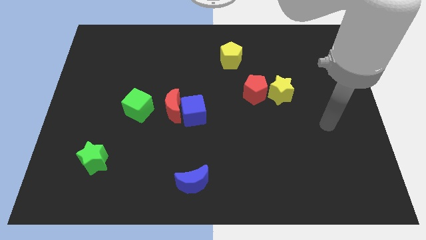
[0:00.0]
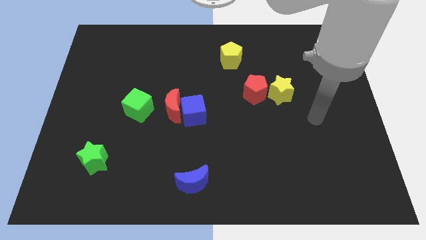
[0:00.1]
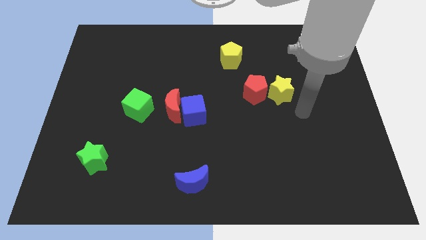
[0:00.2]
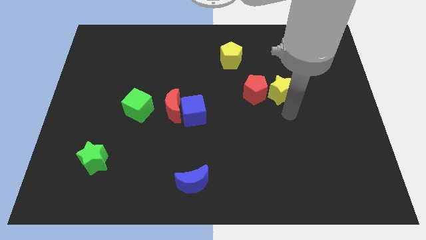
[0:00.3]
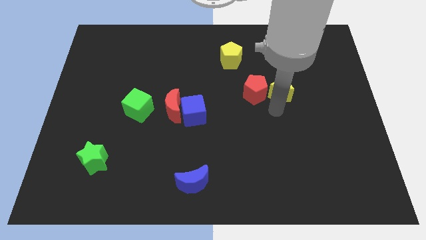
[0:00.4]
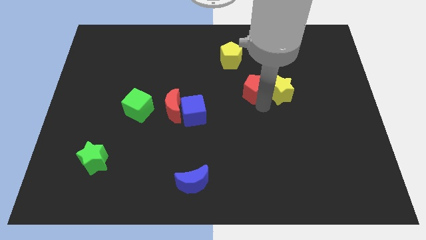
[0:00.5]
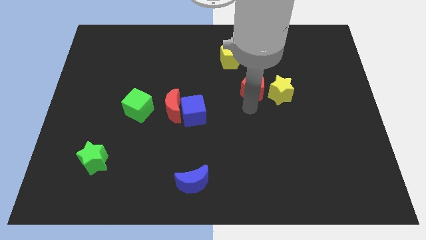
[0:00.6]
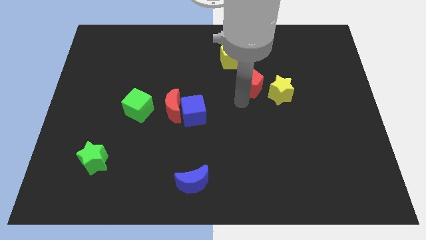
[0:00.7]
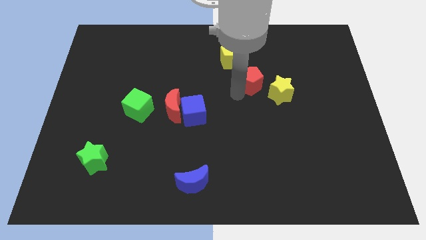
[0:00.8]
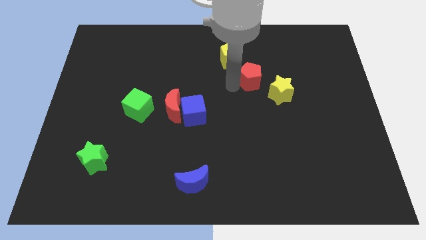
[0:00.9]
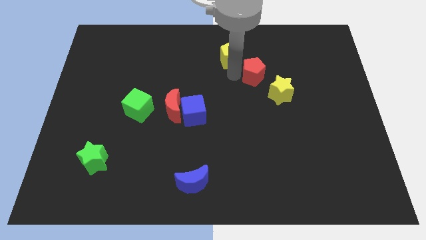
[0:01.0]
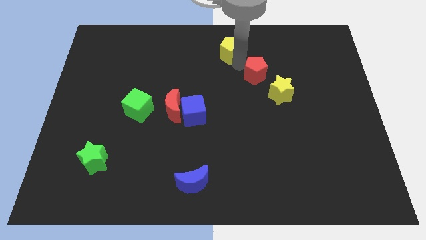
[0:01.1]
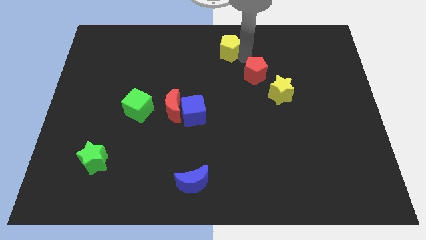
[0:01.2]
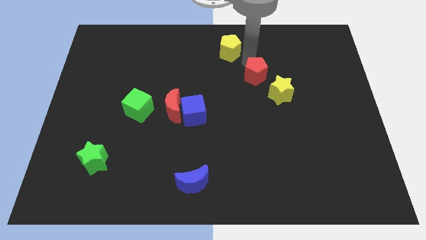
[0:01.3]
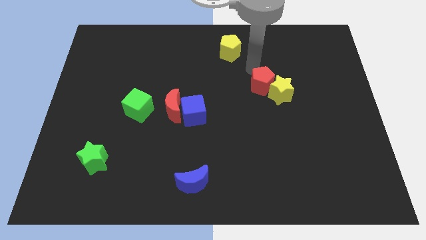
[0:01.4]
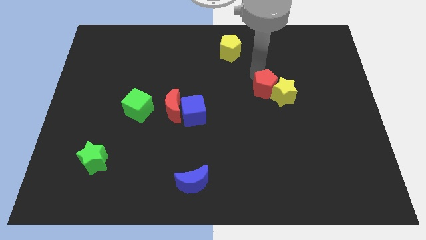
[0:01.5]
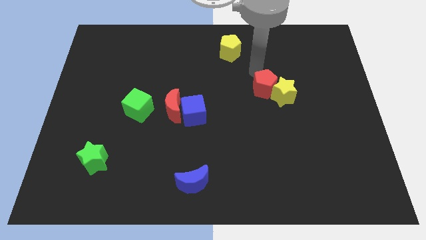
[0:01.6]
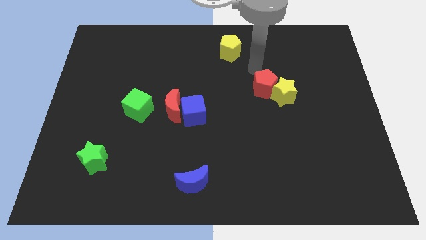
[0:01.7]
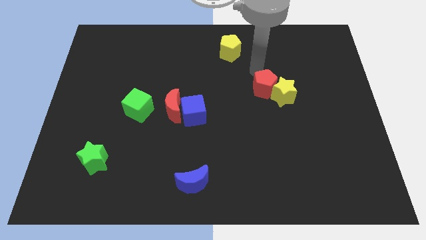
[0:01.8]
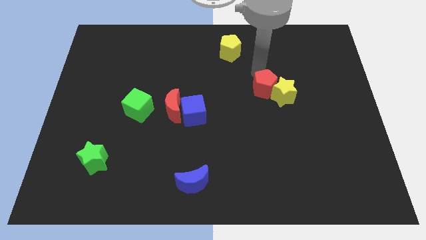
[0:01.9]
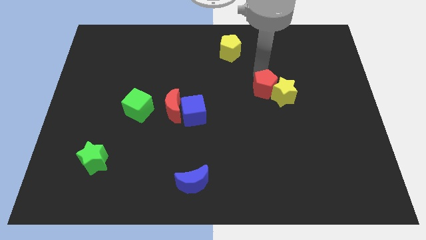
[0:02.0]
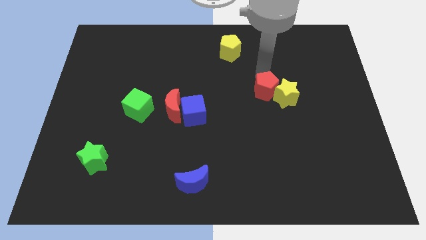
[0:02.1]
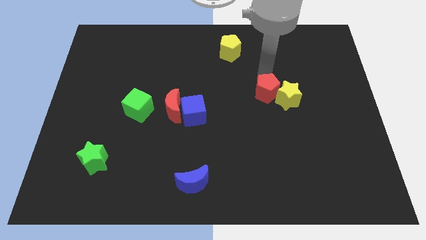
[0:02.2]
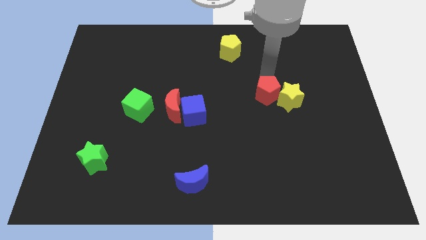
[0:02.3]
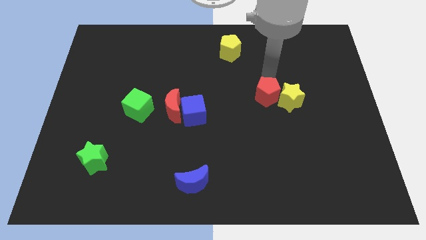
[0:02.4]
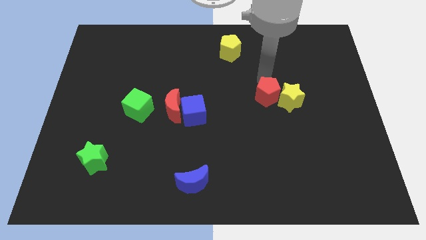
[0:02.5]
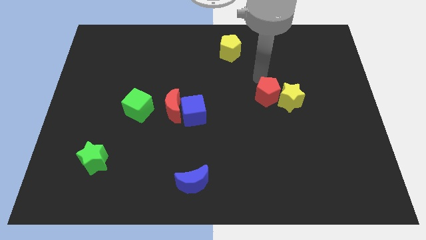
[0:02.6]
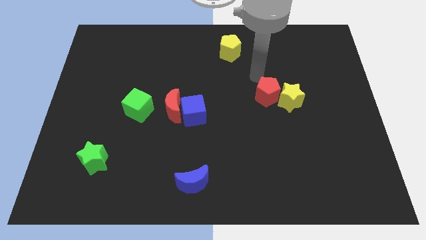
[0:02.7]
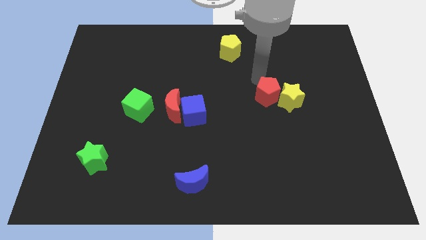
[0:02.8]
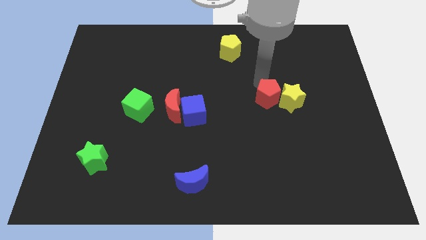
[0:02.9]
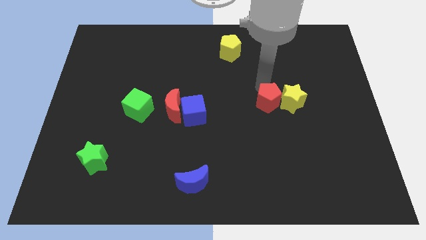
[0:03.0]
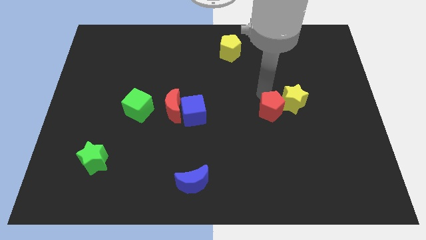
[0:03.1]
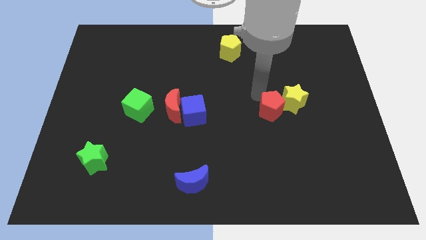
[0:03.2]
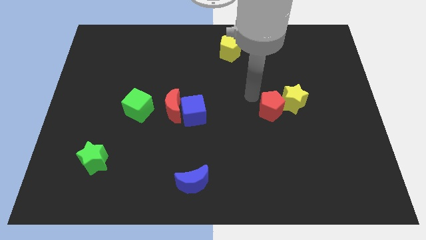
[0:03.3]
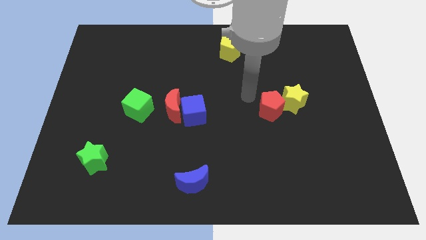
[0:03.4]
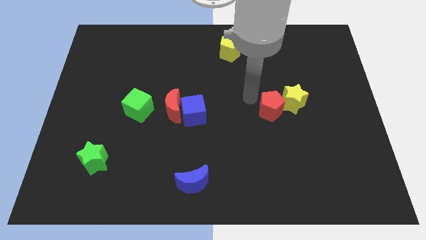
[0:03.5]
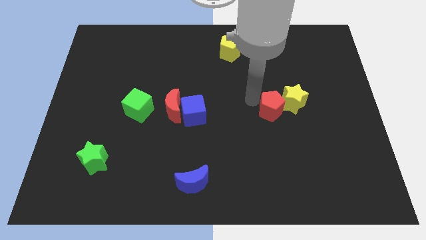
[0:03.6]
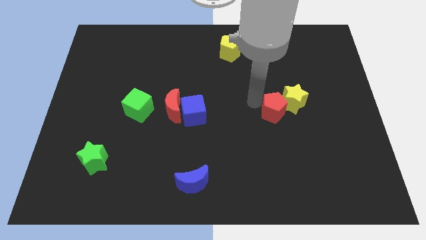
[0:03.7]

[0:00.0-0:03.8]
slightly move the red pentagon downwards and right

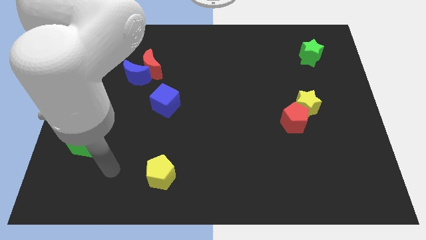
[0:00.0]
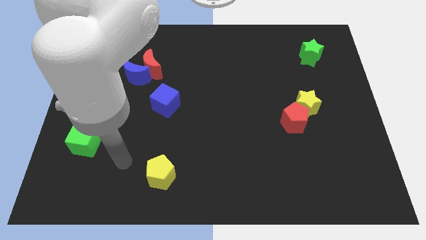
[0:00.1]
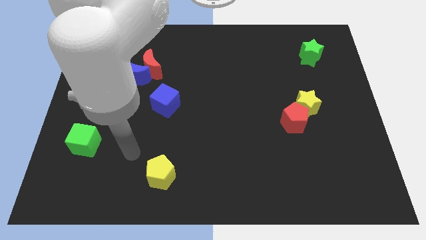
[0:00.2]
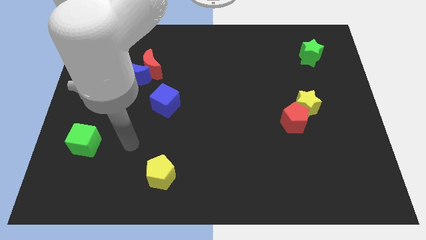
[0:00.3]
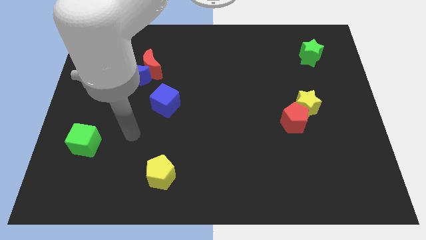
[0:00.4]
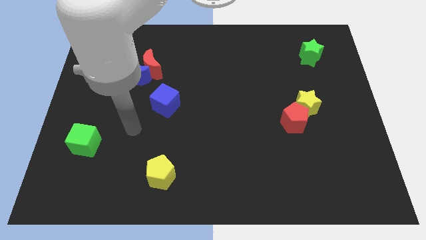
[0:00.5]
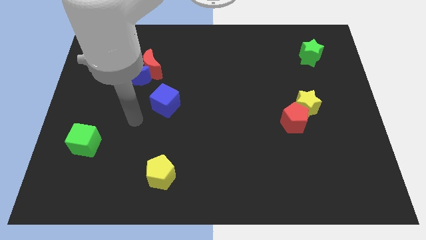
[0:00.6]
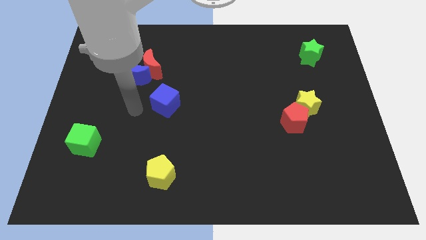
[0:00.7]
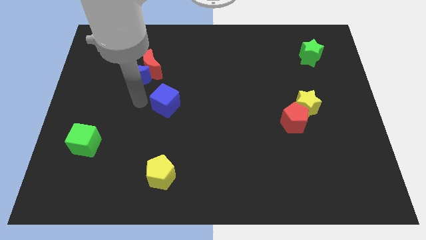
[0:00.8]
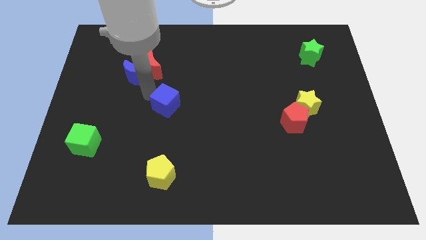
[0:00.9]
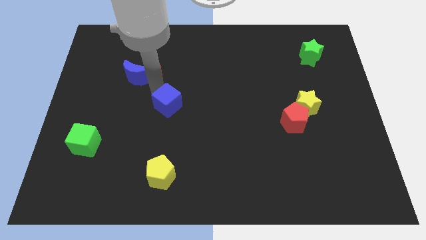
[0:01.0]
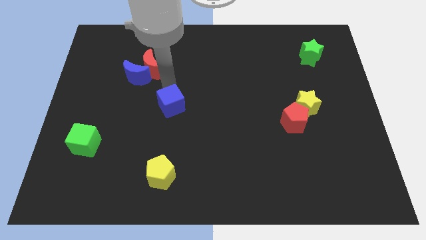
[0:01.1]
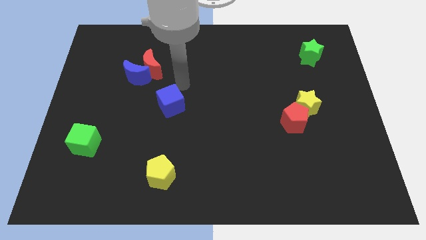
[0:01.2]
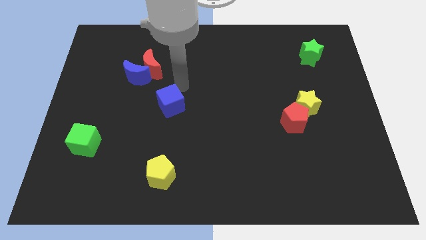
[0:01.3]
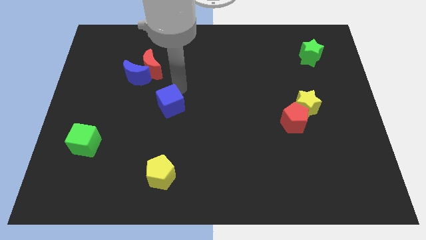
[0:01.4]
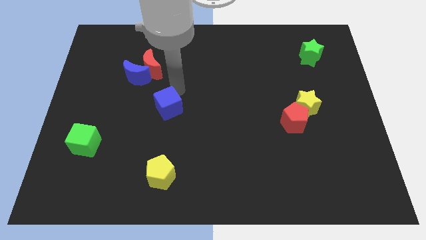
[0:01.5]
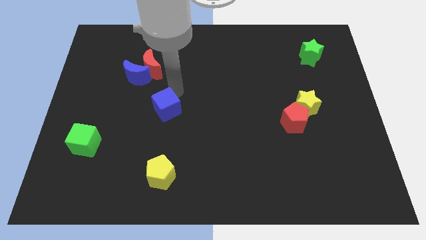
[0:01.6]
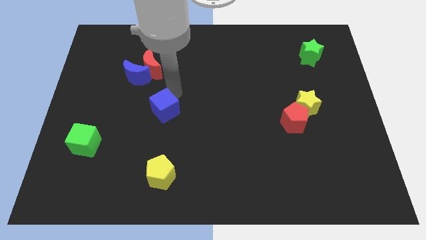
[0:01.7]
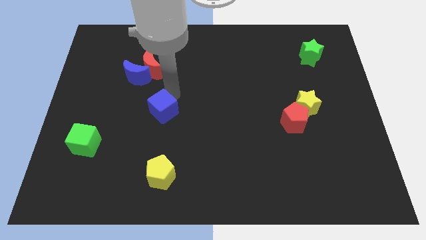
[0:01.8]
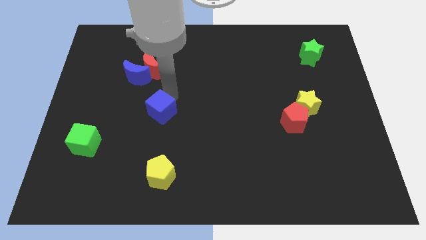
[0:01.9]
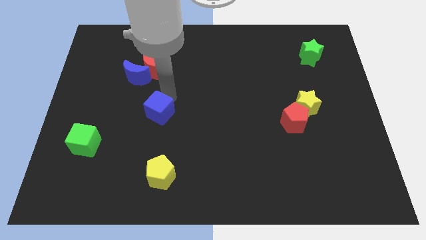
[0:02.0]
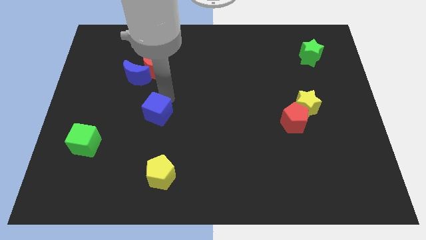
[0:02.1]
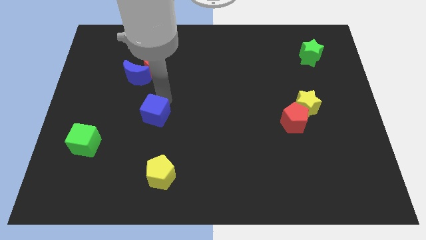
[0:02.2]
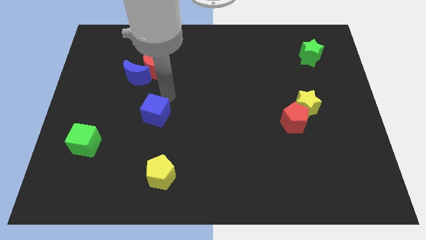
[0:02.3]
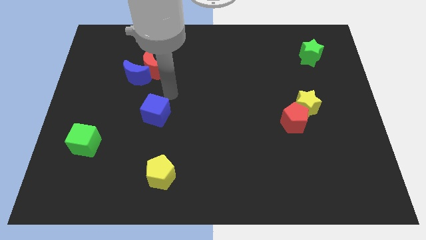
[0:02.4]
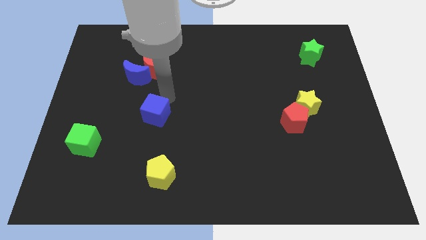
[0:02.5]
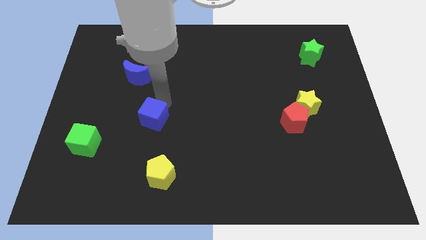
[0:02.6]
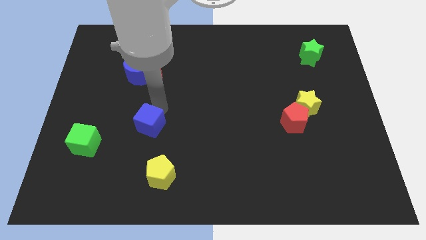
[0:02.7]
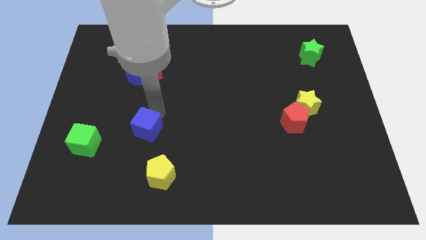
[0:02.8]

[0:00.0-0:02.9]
slide the blue cube a bit diagonally down and left

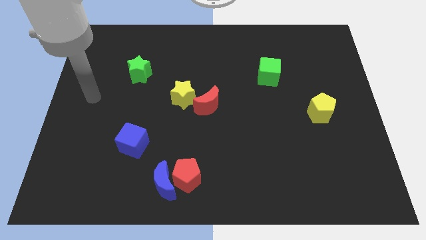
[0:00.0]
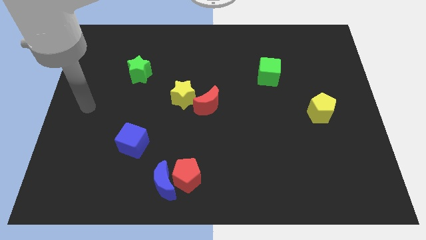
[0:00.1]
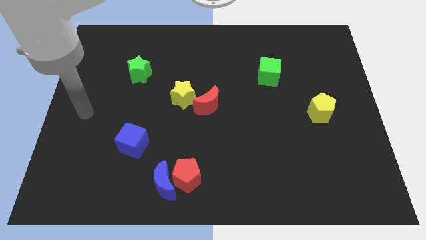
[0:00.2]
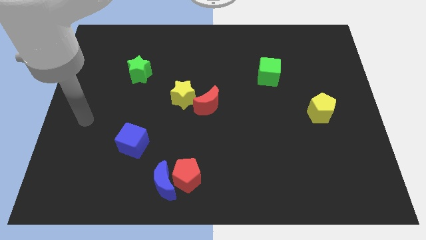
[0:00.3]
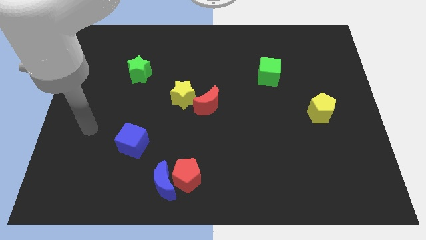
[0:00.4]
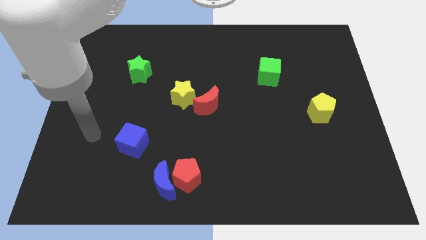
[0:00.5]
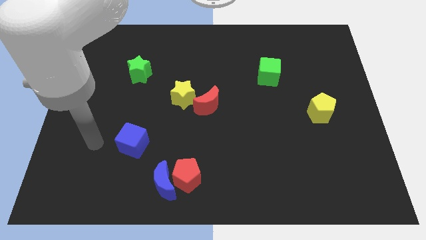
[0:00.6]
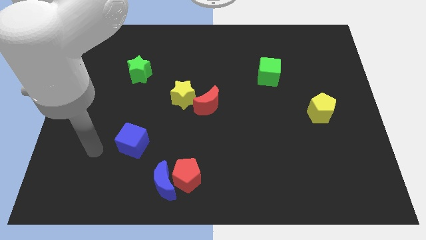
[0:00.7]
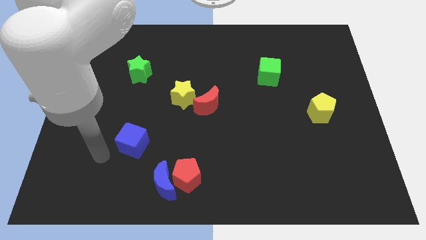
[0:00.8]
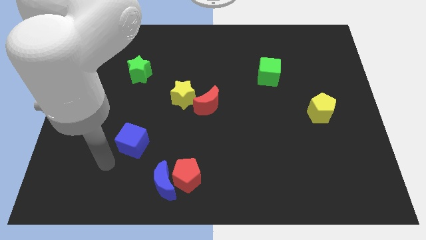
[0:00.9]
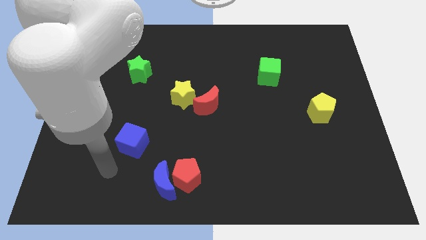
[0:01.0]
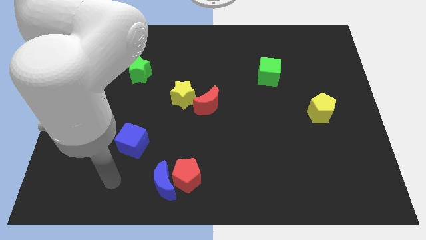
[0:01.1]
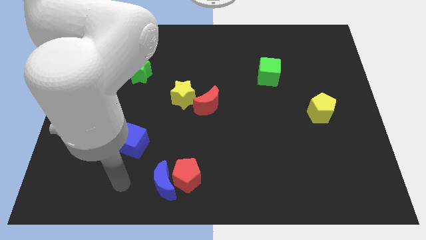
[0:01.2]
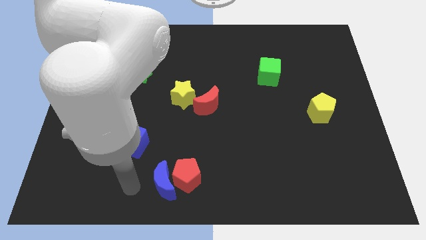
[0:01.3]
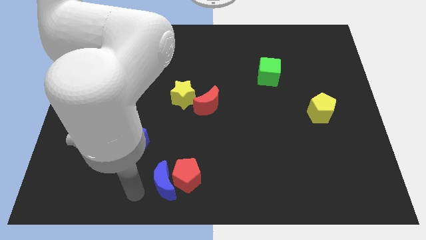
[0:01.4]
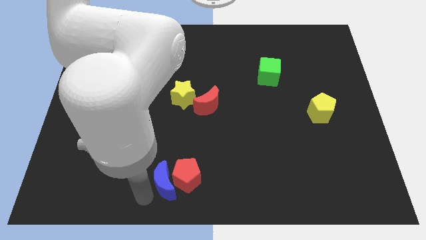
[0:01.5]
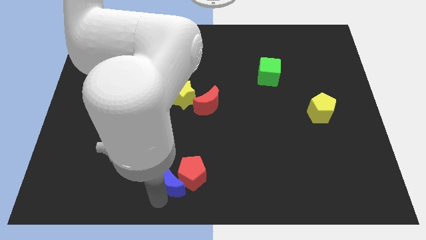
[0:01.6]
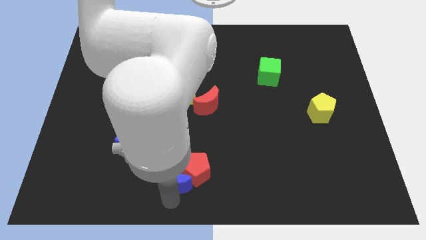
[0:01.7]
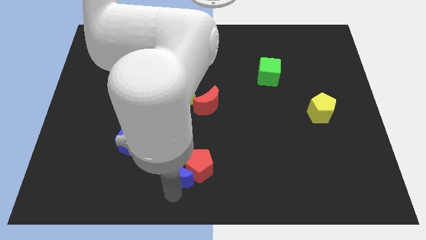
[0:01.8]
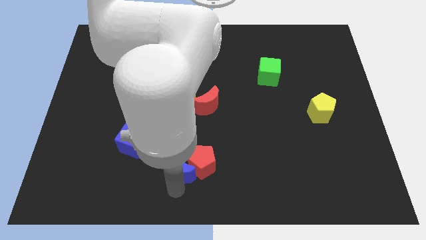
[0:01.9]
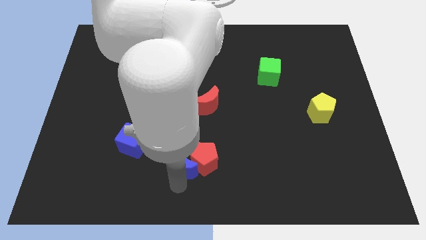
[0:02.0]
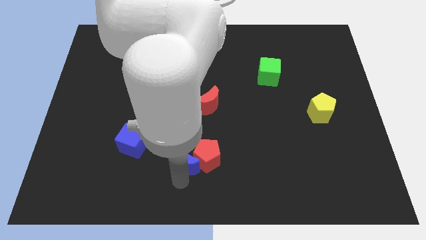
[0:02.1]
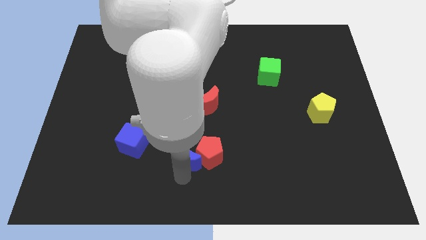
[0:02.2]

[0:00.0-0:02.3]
push the red pentagon a little bit up and to the right
